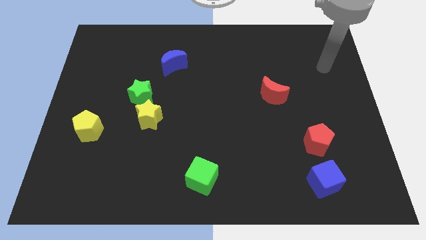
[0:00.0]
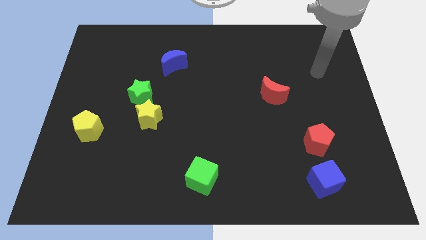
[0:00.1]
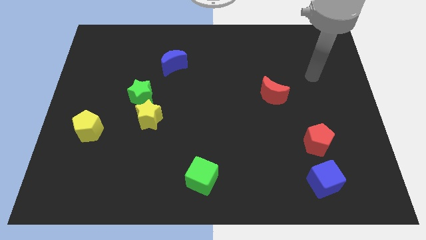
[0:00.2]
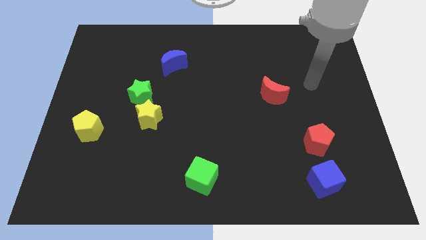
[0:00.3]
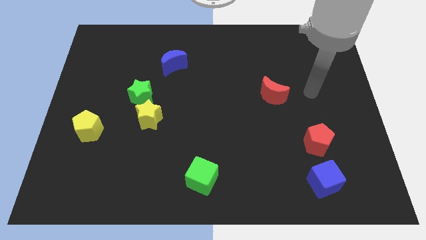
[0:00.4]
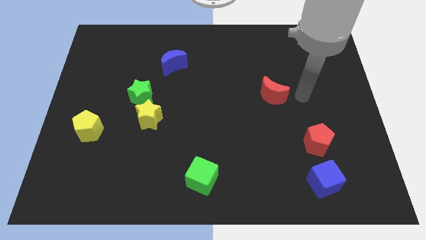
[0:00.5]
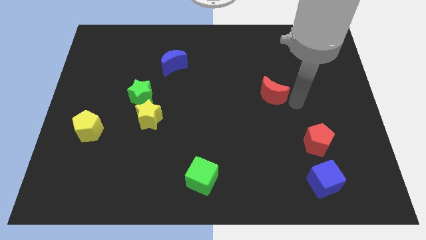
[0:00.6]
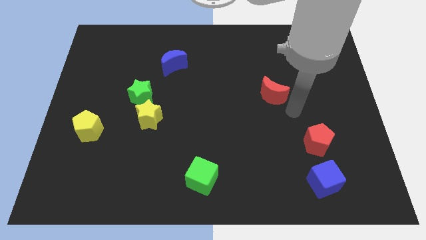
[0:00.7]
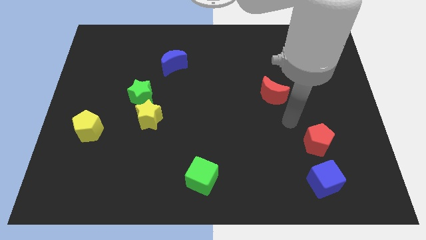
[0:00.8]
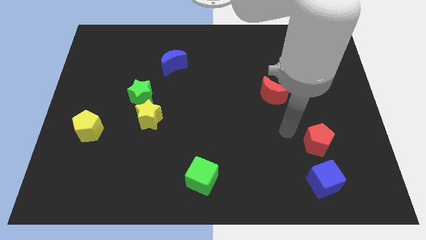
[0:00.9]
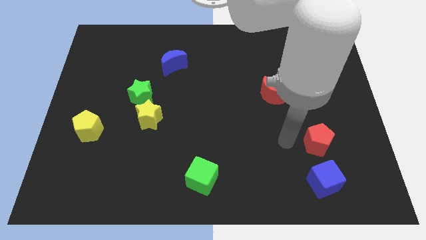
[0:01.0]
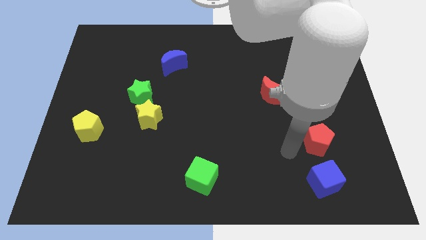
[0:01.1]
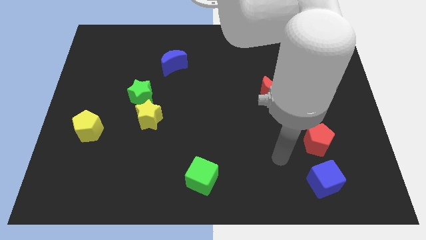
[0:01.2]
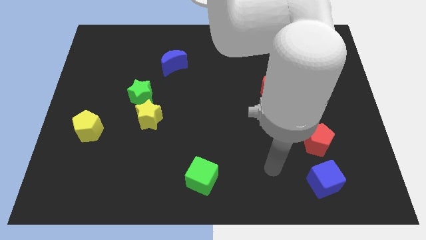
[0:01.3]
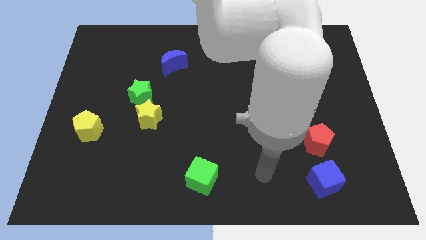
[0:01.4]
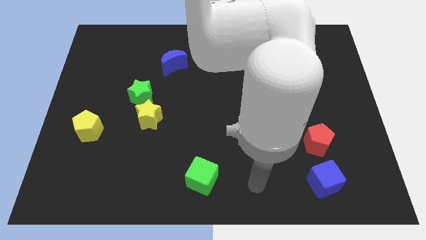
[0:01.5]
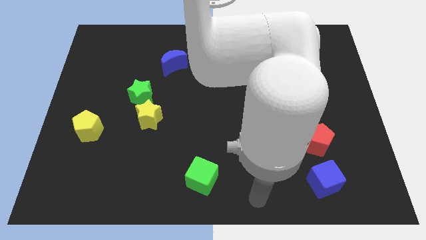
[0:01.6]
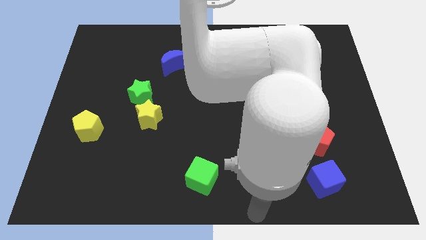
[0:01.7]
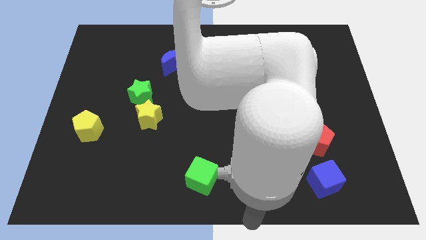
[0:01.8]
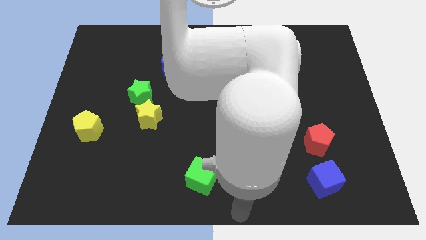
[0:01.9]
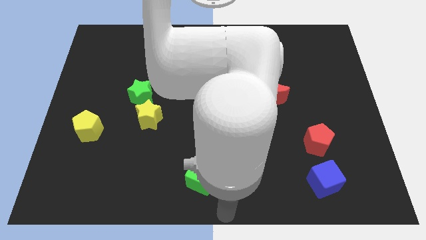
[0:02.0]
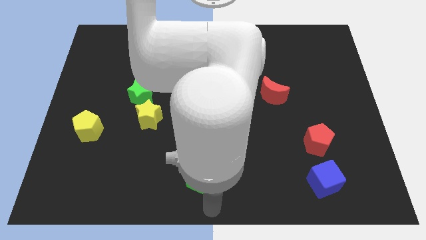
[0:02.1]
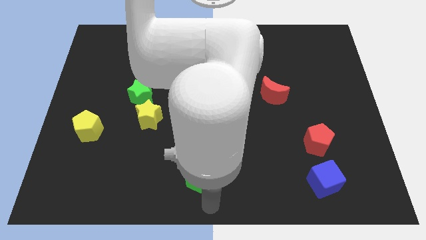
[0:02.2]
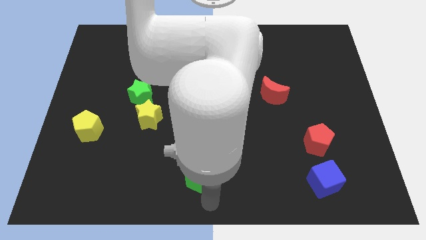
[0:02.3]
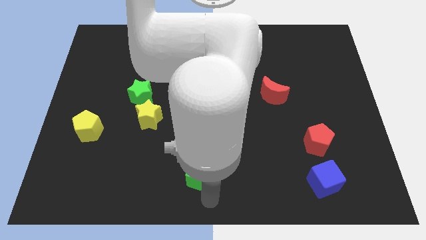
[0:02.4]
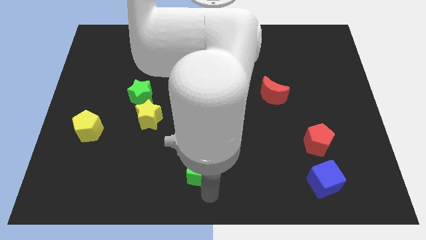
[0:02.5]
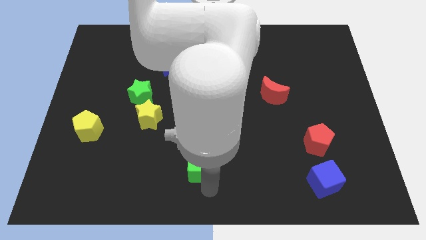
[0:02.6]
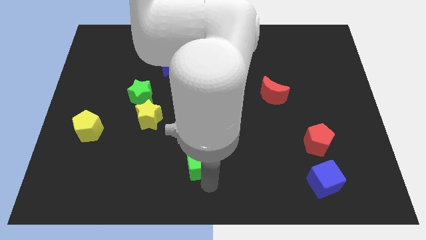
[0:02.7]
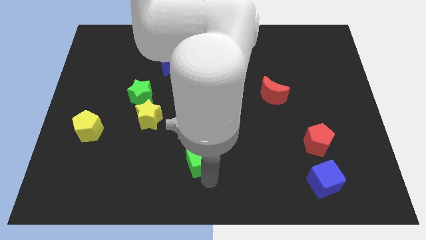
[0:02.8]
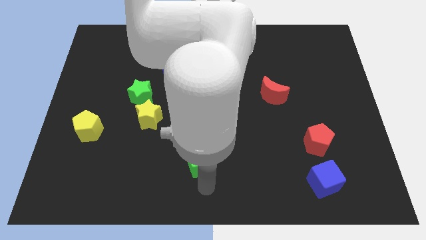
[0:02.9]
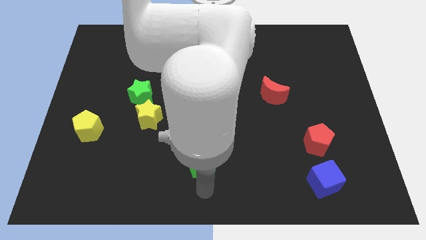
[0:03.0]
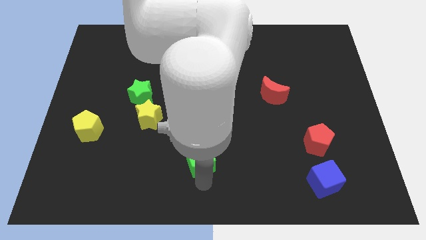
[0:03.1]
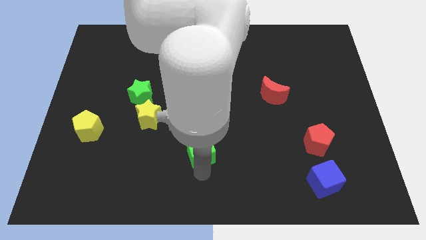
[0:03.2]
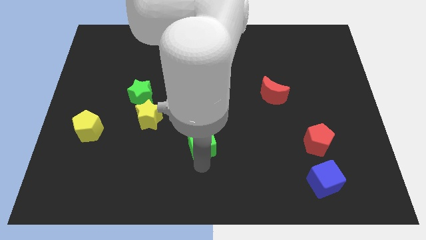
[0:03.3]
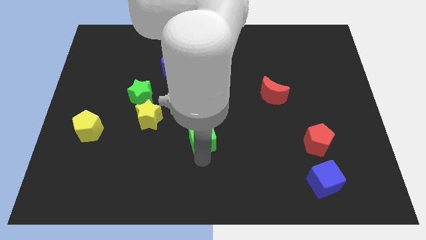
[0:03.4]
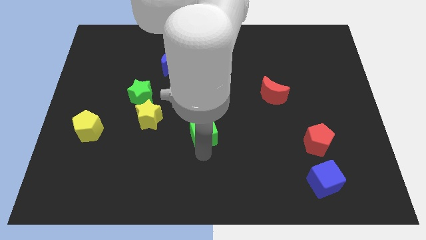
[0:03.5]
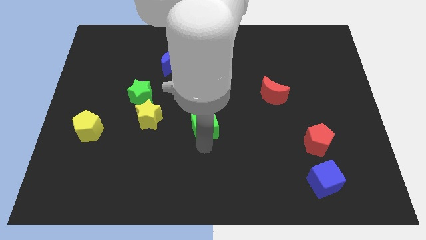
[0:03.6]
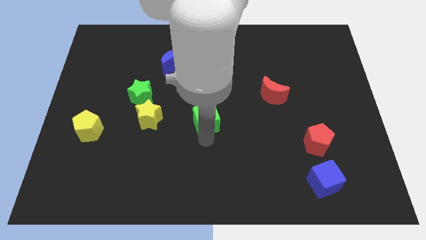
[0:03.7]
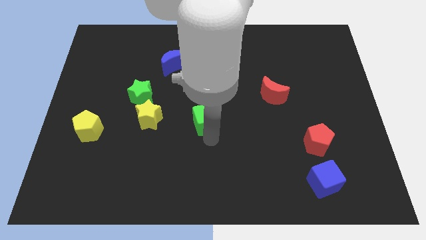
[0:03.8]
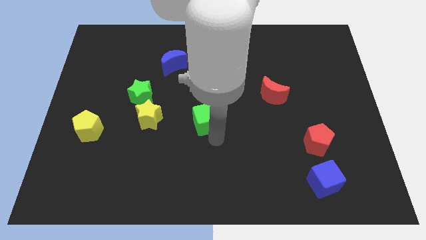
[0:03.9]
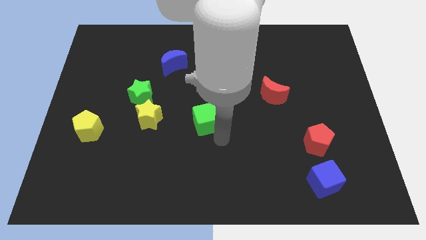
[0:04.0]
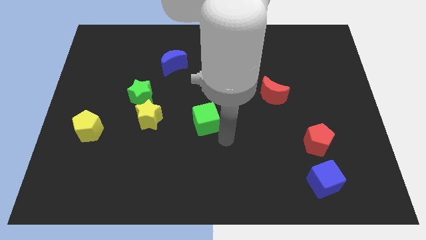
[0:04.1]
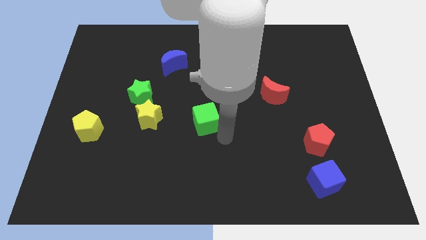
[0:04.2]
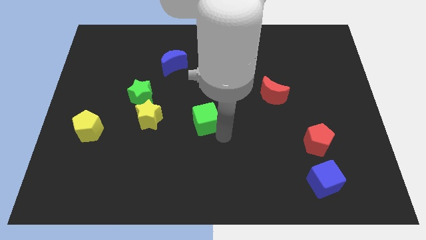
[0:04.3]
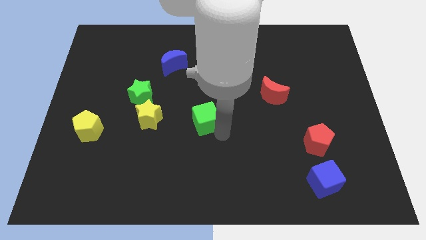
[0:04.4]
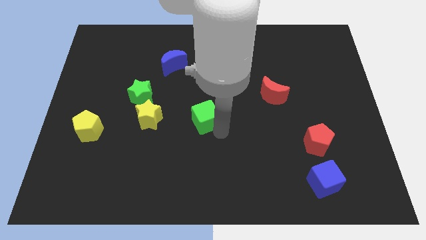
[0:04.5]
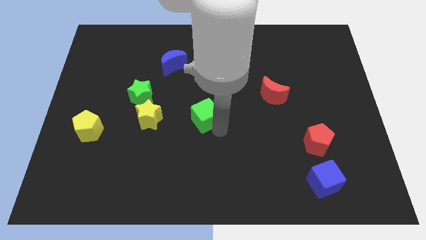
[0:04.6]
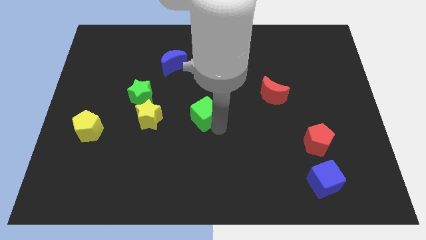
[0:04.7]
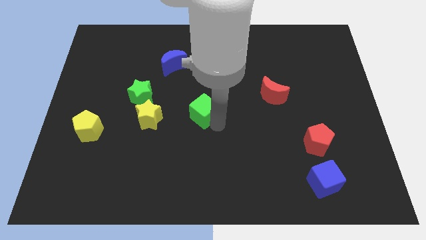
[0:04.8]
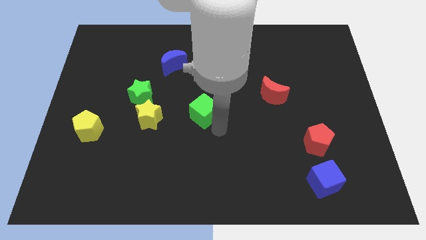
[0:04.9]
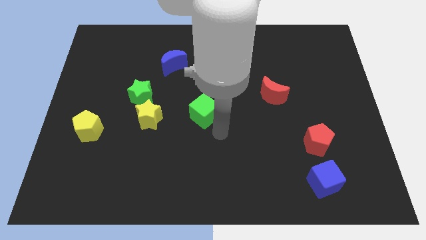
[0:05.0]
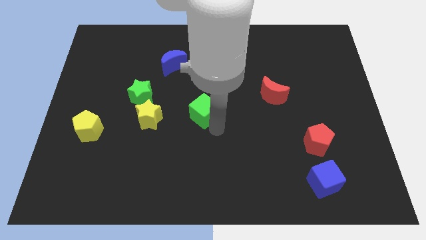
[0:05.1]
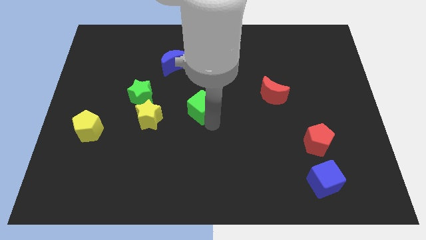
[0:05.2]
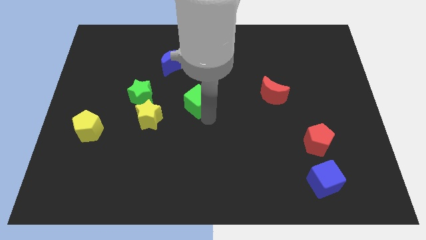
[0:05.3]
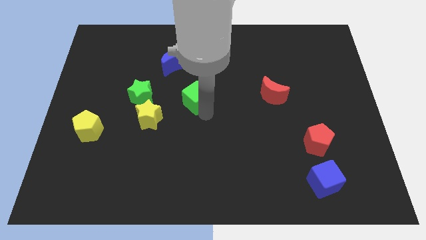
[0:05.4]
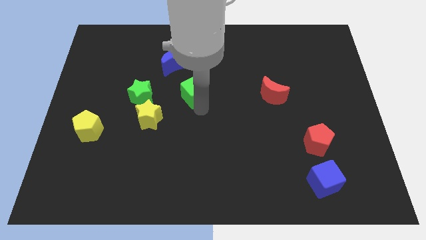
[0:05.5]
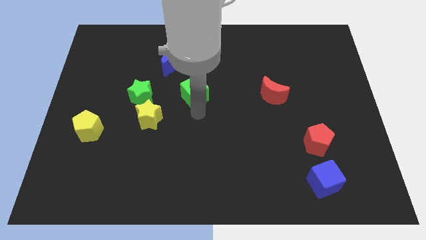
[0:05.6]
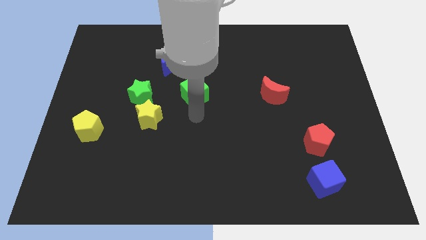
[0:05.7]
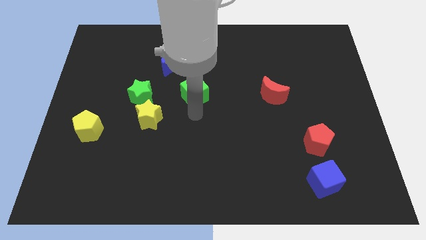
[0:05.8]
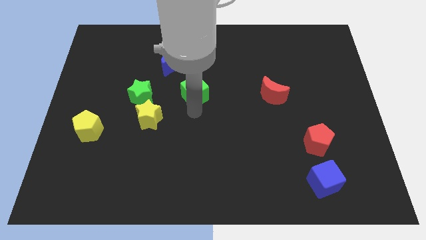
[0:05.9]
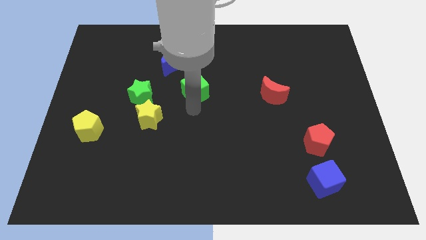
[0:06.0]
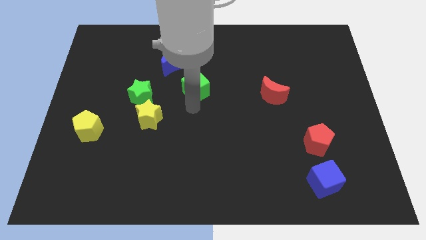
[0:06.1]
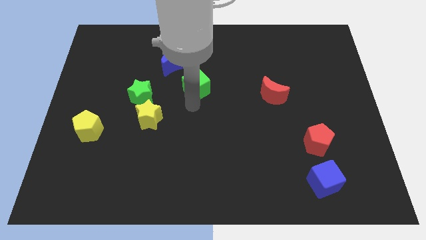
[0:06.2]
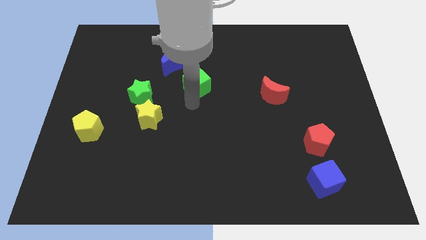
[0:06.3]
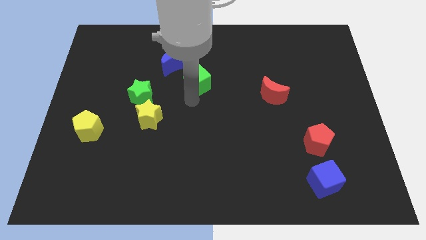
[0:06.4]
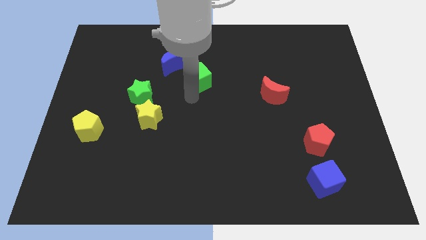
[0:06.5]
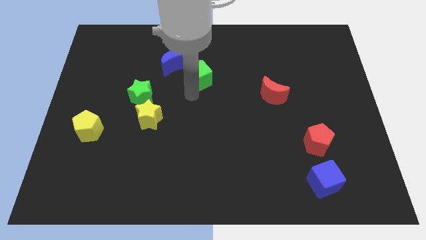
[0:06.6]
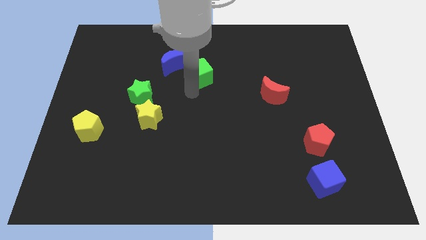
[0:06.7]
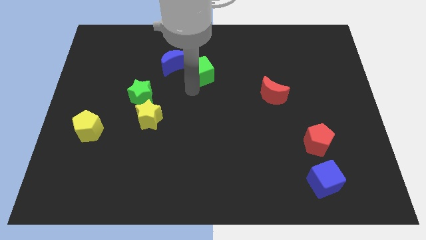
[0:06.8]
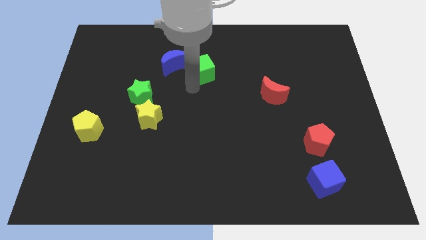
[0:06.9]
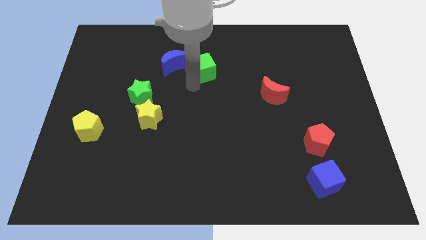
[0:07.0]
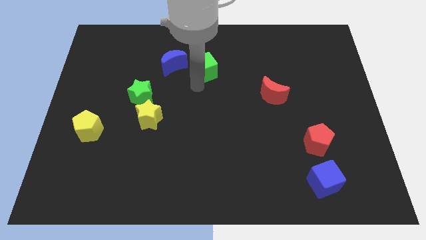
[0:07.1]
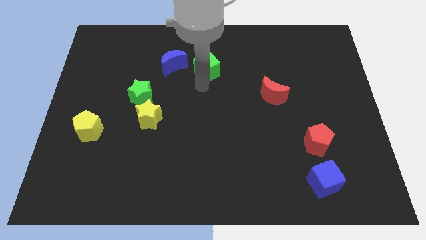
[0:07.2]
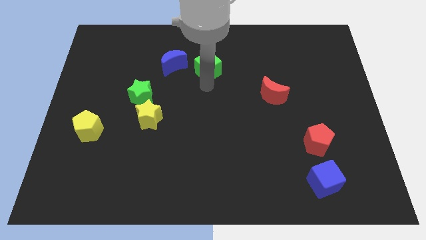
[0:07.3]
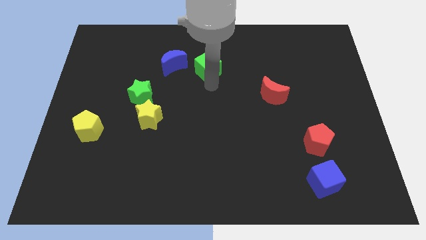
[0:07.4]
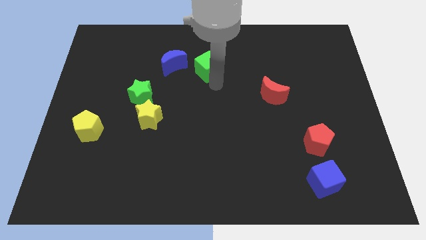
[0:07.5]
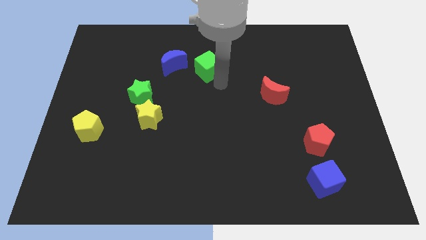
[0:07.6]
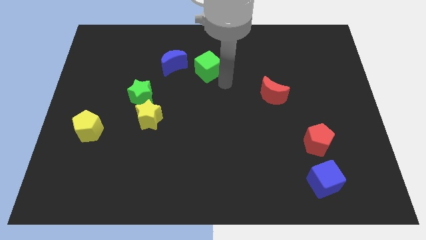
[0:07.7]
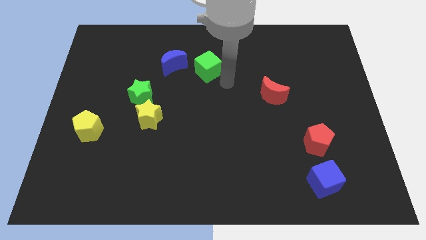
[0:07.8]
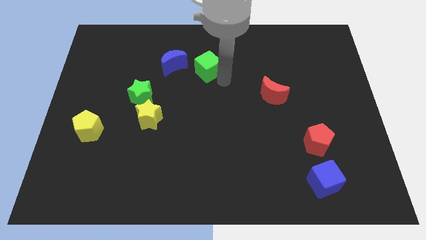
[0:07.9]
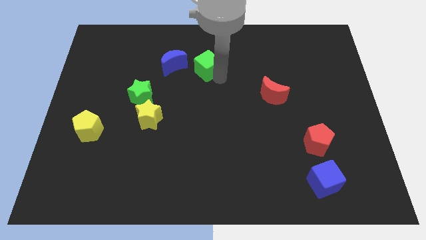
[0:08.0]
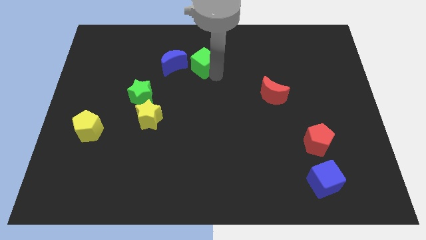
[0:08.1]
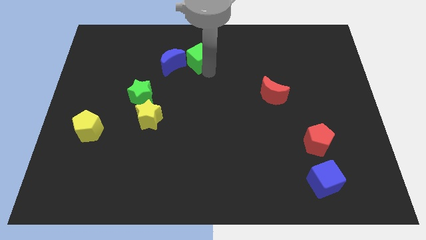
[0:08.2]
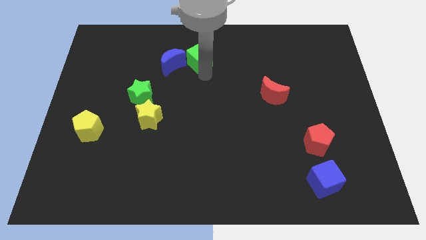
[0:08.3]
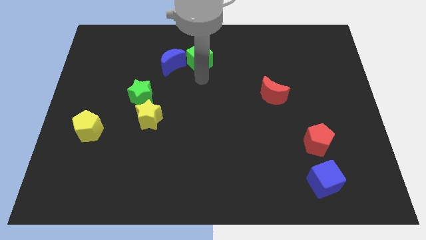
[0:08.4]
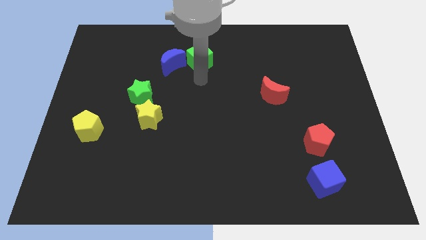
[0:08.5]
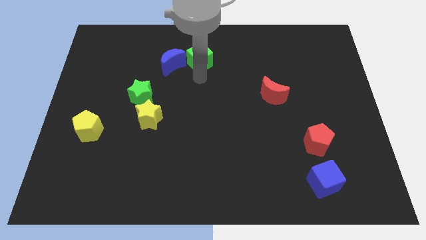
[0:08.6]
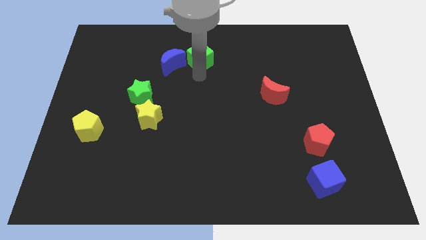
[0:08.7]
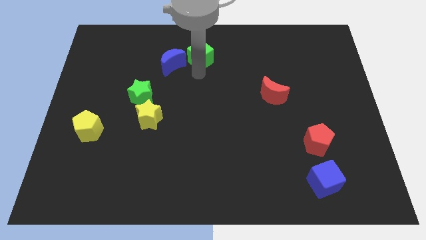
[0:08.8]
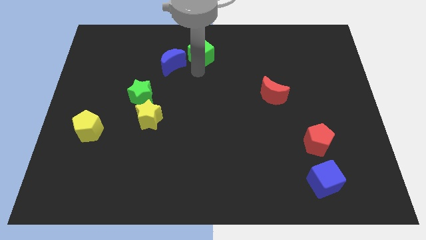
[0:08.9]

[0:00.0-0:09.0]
slide the green cube to the top
